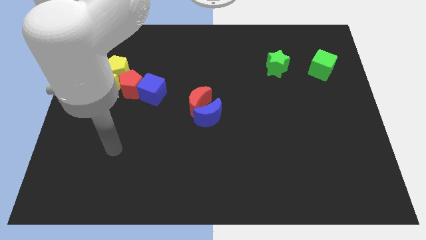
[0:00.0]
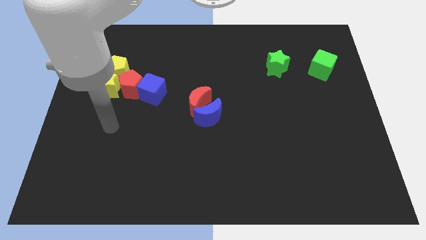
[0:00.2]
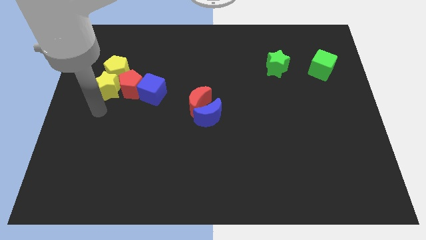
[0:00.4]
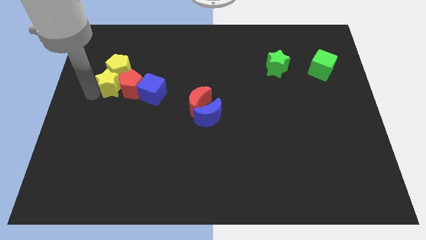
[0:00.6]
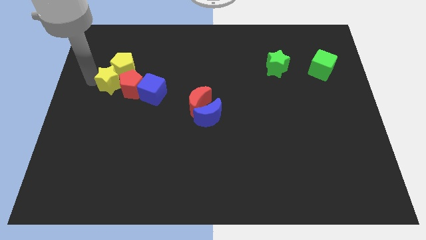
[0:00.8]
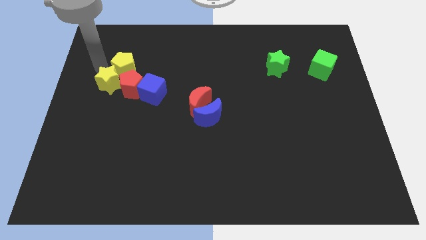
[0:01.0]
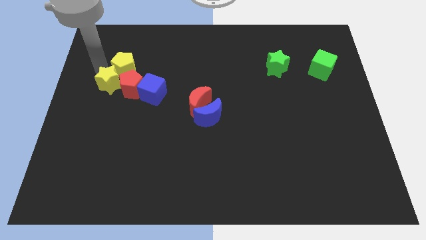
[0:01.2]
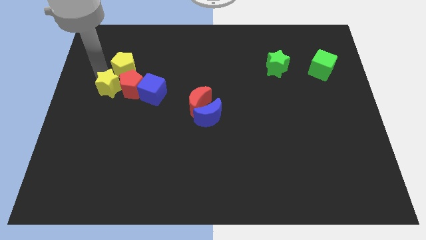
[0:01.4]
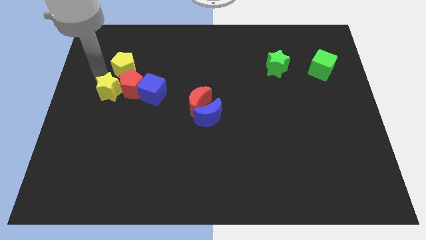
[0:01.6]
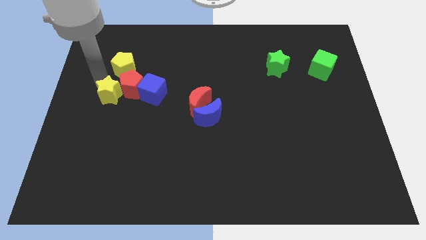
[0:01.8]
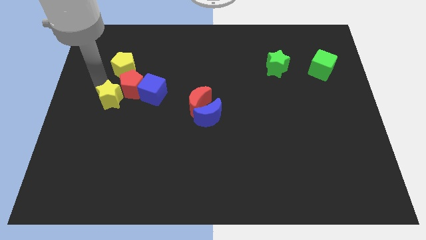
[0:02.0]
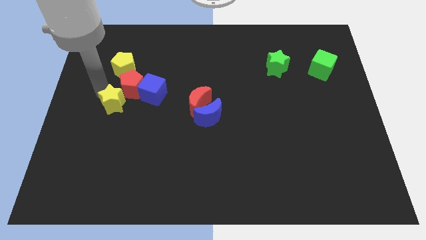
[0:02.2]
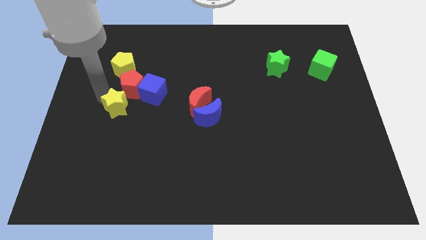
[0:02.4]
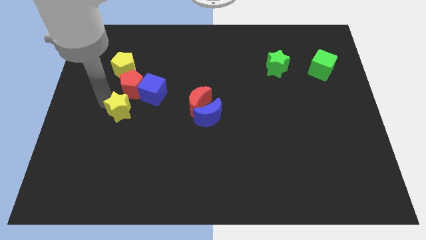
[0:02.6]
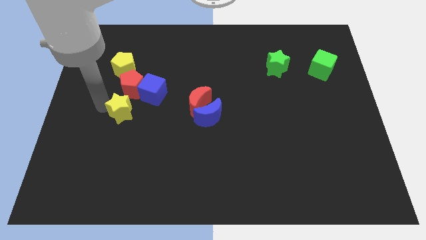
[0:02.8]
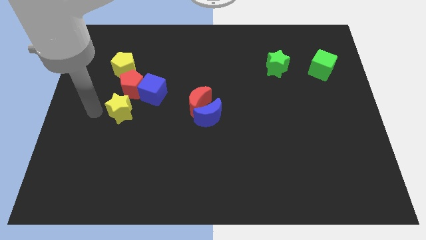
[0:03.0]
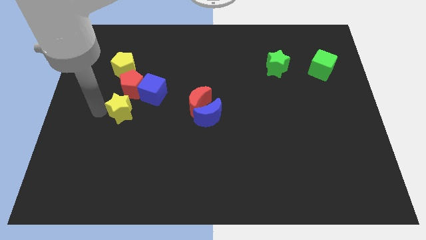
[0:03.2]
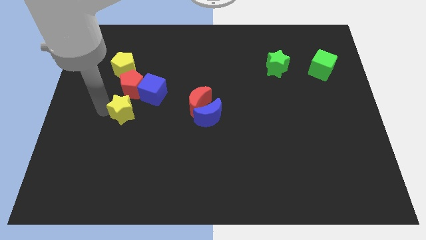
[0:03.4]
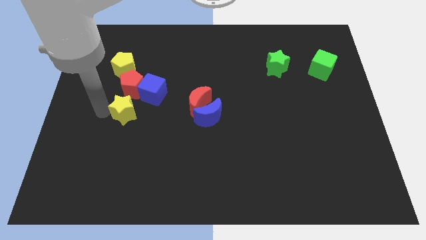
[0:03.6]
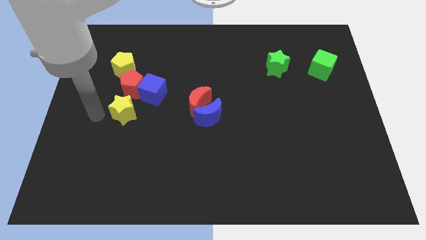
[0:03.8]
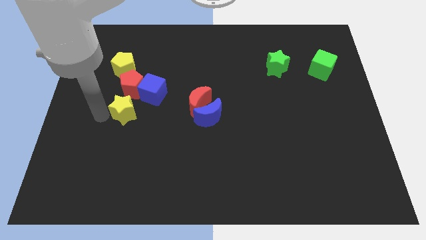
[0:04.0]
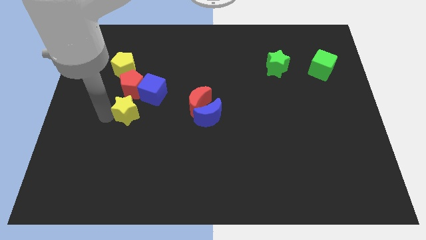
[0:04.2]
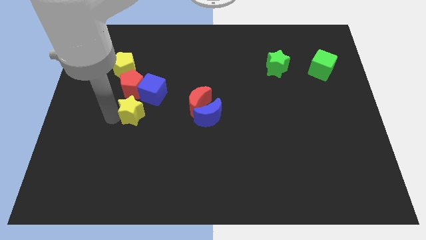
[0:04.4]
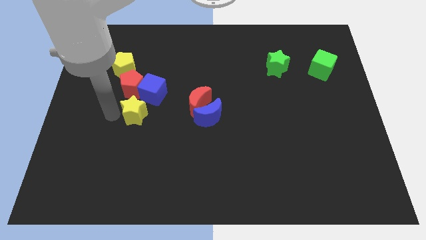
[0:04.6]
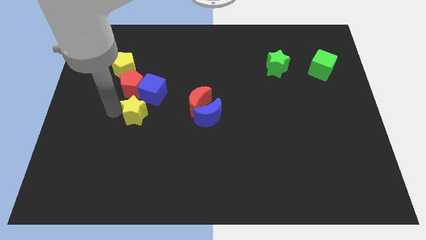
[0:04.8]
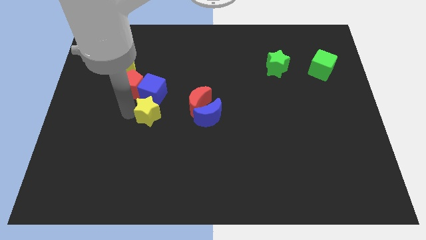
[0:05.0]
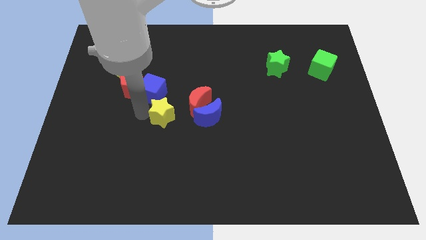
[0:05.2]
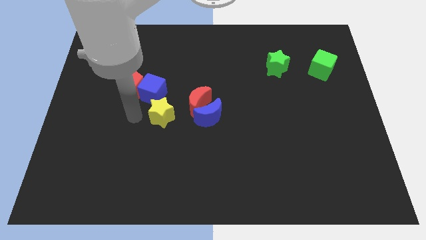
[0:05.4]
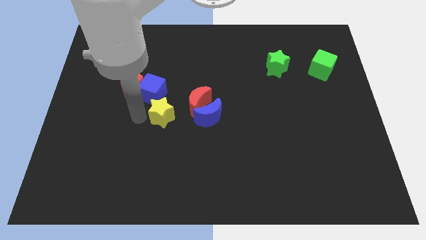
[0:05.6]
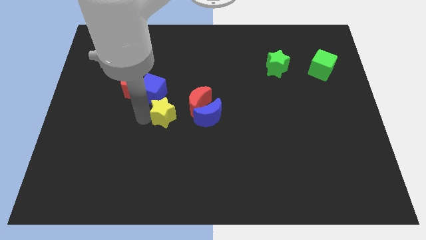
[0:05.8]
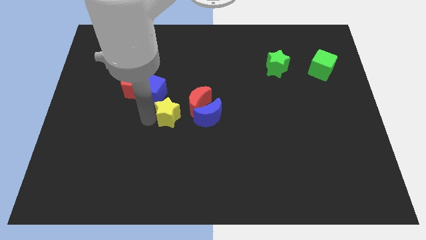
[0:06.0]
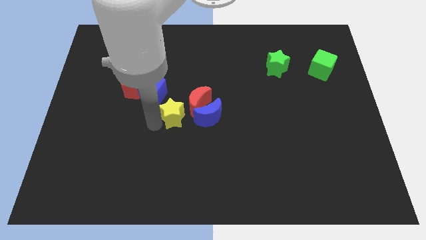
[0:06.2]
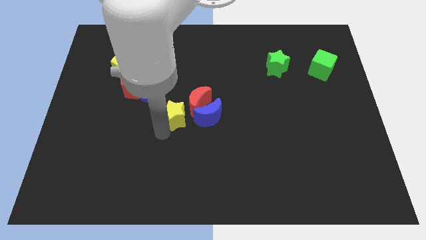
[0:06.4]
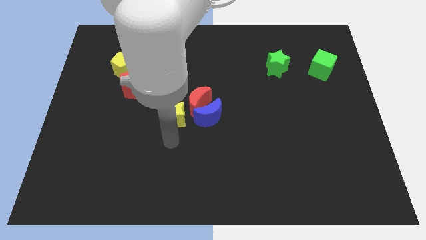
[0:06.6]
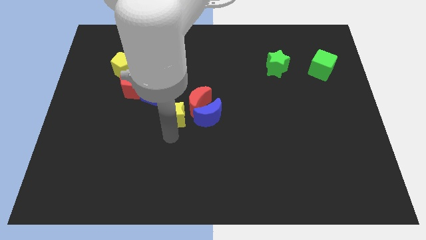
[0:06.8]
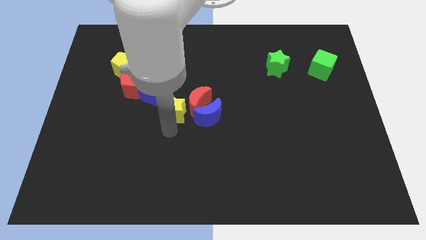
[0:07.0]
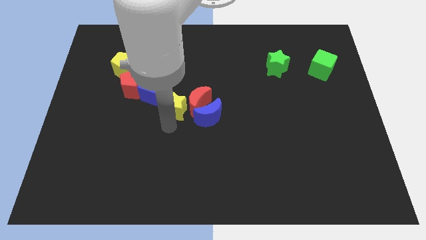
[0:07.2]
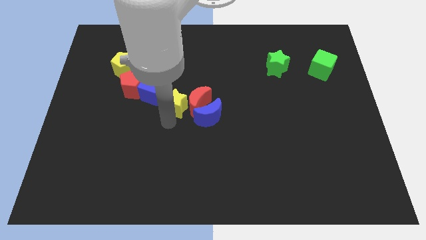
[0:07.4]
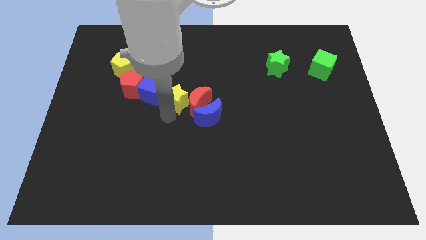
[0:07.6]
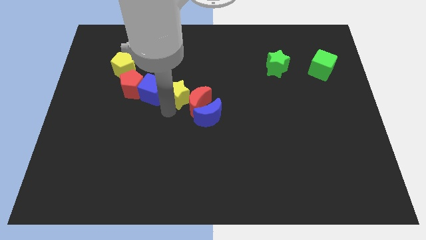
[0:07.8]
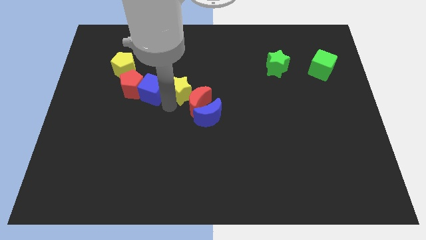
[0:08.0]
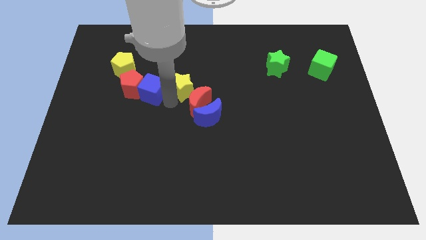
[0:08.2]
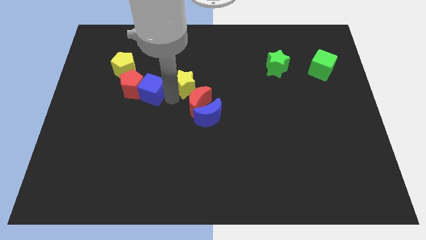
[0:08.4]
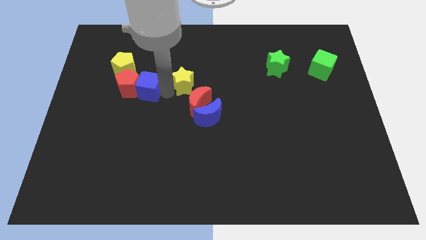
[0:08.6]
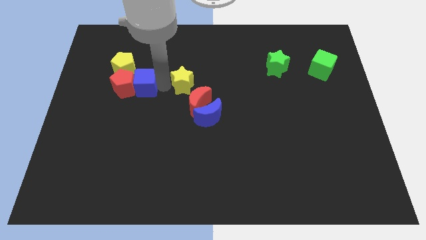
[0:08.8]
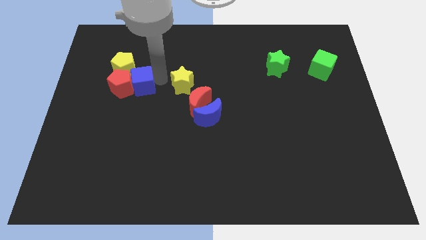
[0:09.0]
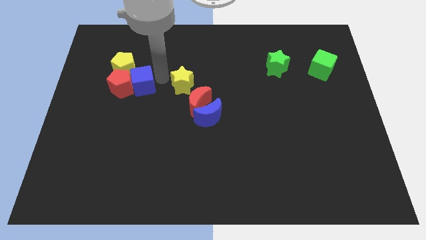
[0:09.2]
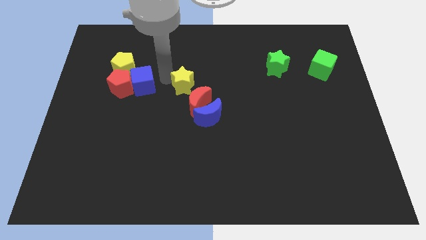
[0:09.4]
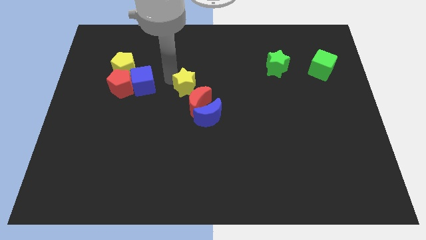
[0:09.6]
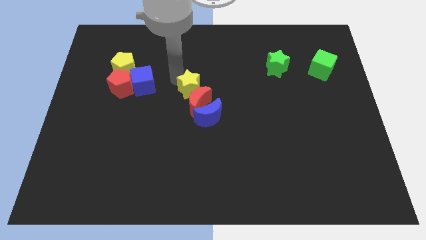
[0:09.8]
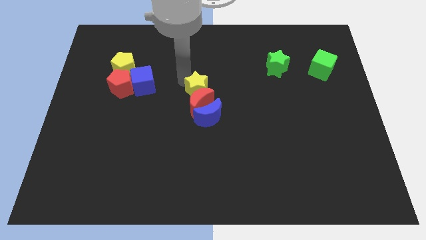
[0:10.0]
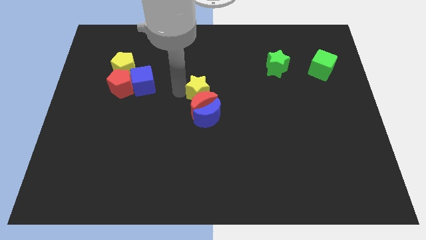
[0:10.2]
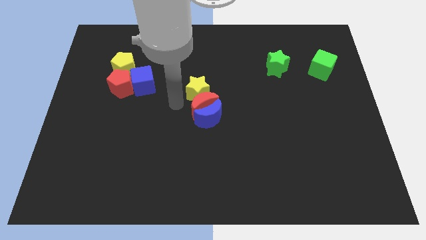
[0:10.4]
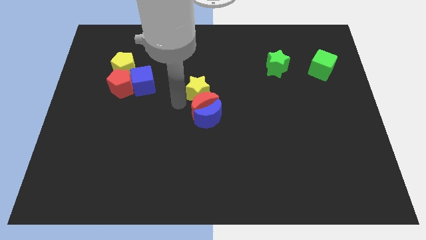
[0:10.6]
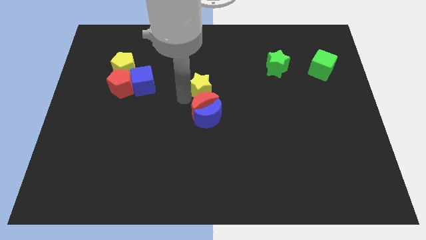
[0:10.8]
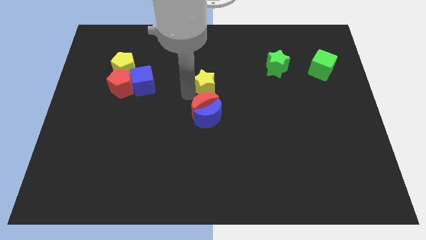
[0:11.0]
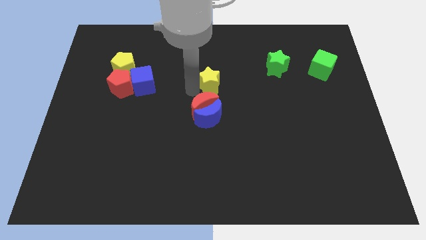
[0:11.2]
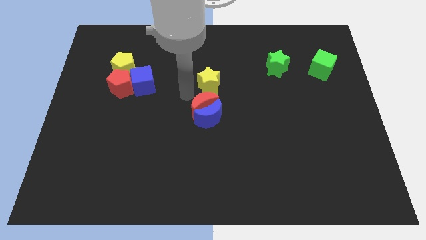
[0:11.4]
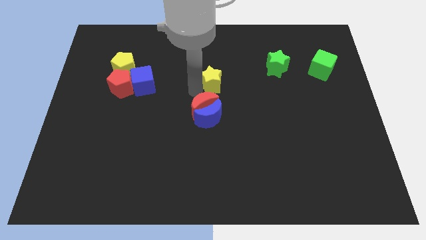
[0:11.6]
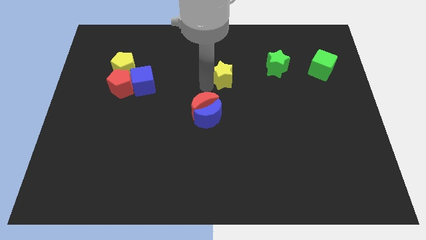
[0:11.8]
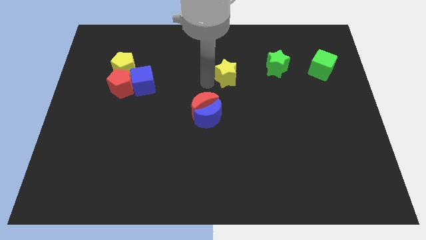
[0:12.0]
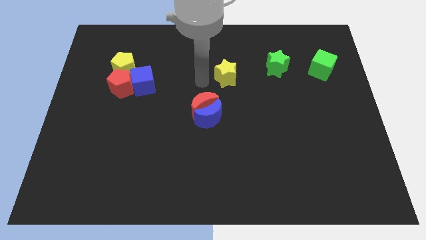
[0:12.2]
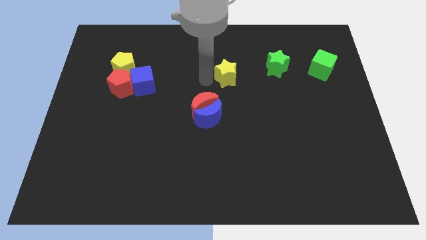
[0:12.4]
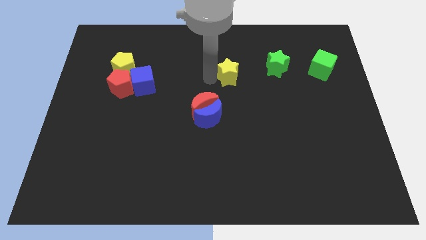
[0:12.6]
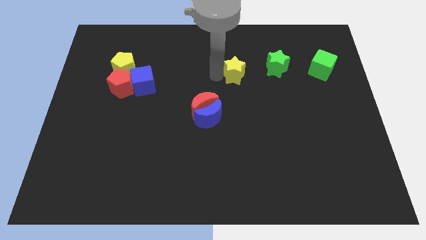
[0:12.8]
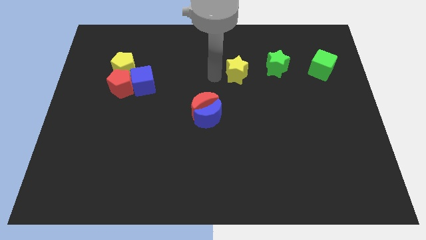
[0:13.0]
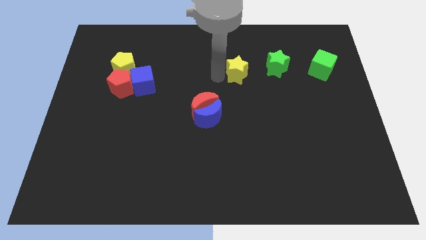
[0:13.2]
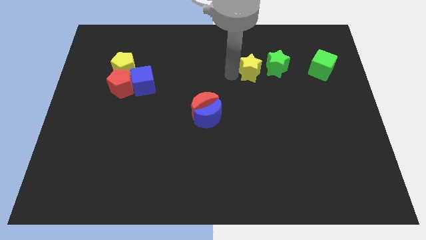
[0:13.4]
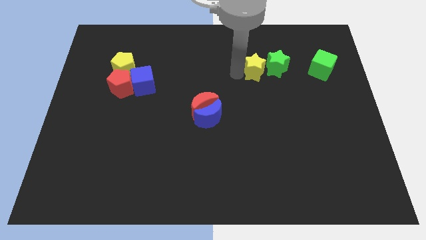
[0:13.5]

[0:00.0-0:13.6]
push the yellow star to the green star
